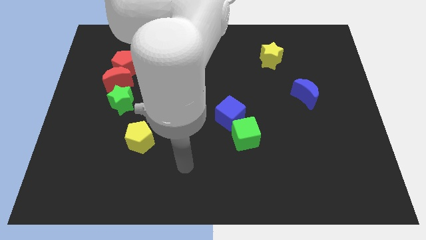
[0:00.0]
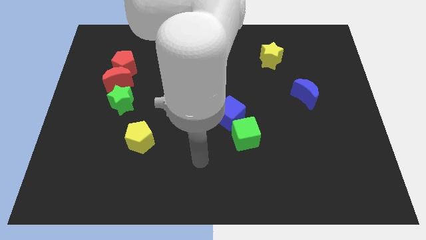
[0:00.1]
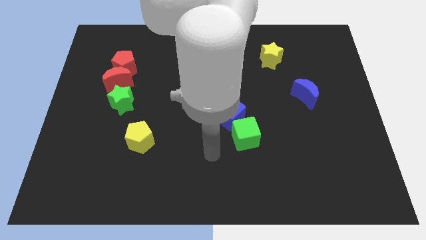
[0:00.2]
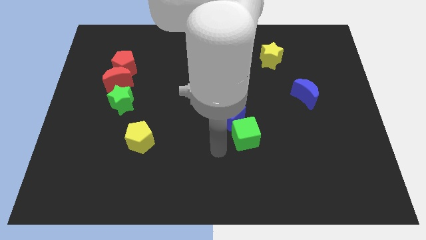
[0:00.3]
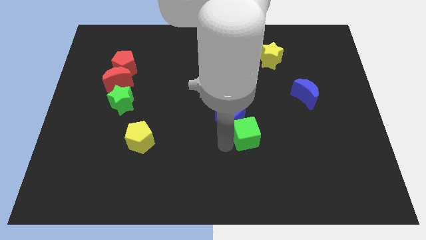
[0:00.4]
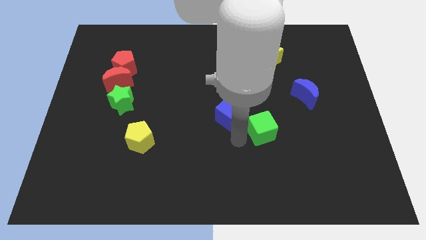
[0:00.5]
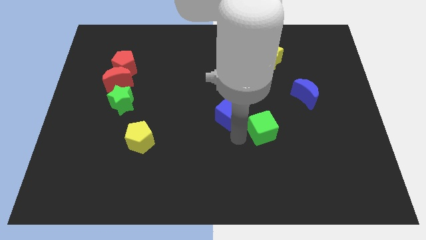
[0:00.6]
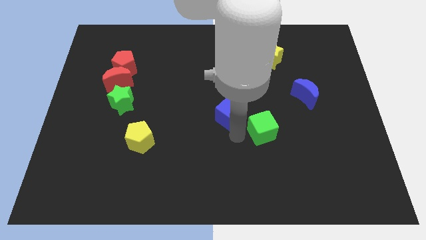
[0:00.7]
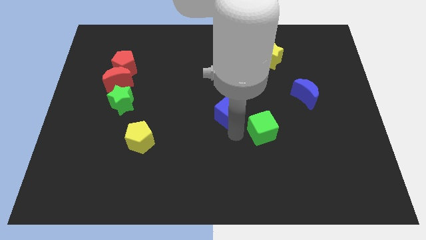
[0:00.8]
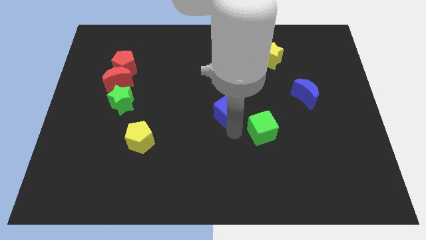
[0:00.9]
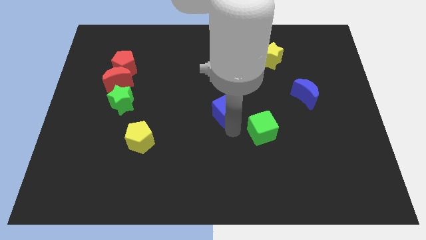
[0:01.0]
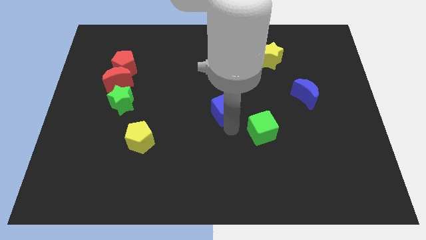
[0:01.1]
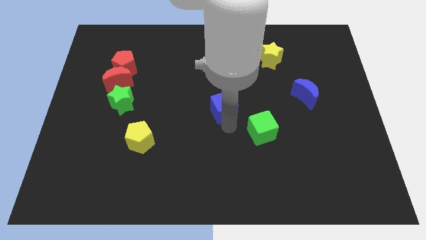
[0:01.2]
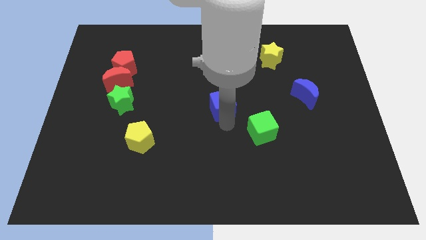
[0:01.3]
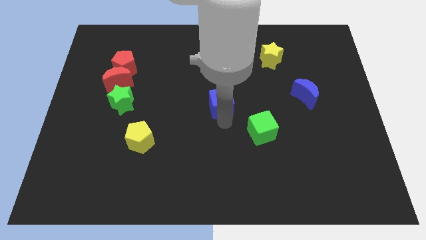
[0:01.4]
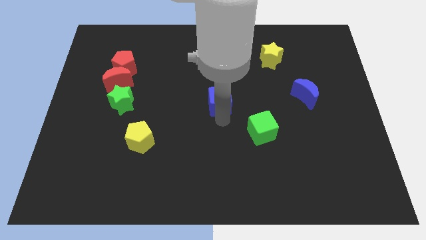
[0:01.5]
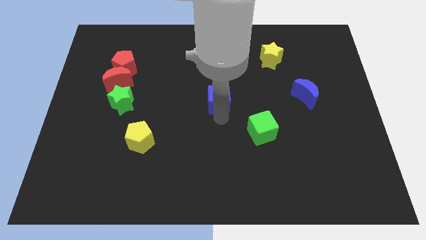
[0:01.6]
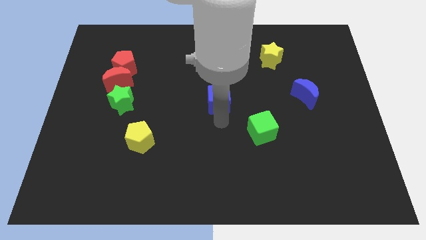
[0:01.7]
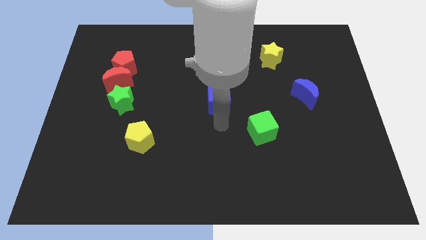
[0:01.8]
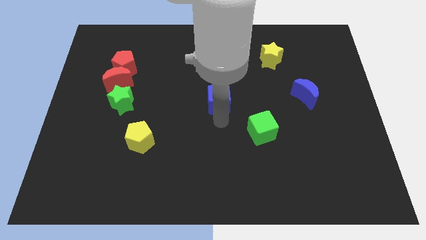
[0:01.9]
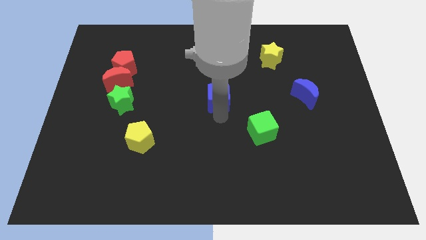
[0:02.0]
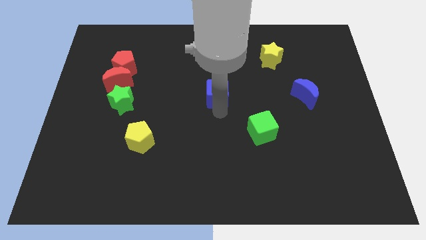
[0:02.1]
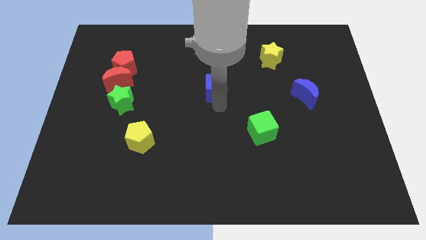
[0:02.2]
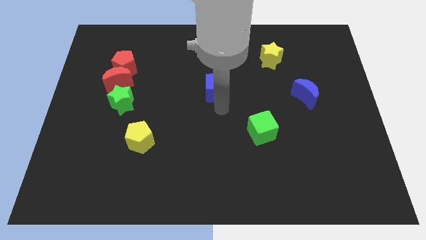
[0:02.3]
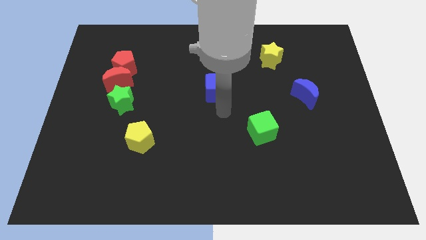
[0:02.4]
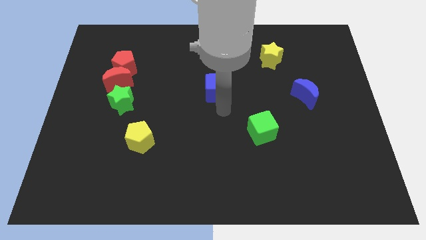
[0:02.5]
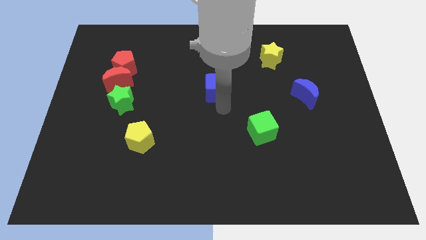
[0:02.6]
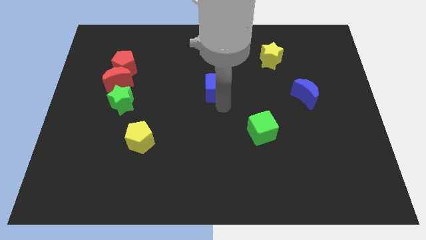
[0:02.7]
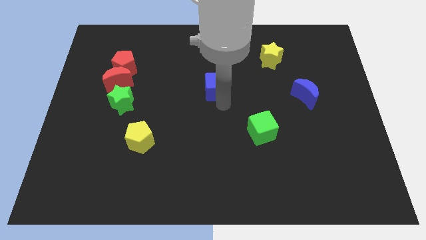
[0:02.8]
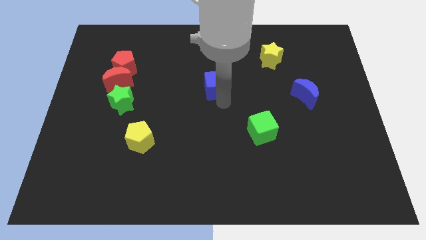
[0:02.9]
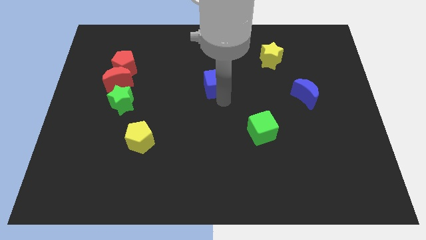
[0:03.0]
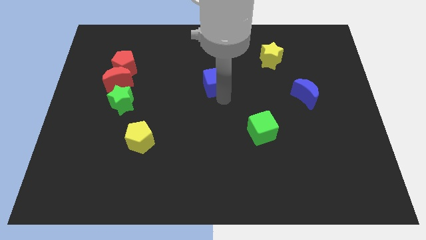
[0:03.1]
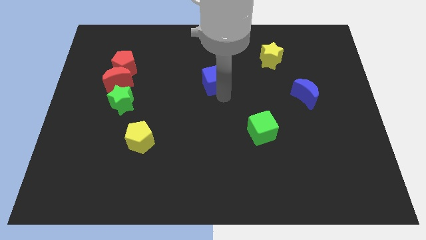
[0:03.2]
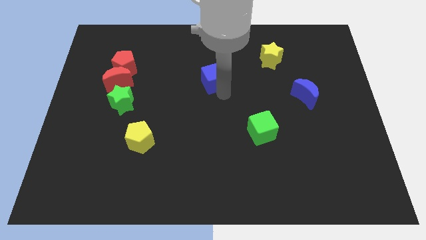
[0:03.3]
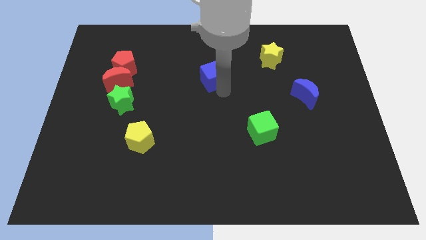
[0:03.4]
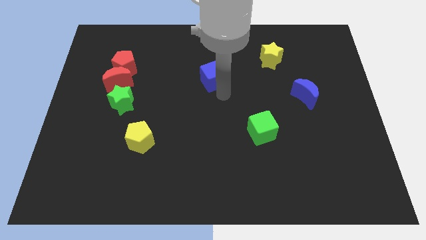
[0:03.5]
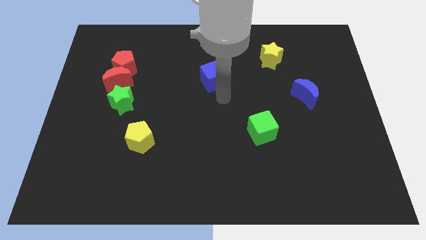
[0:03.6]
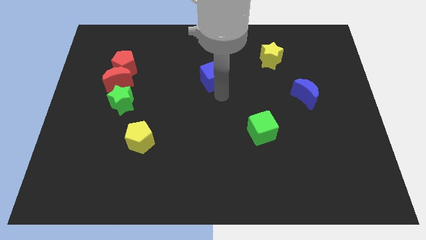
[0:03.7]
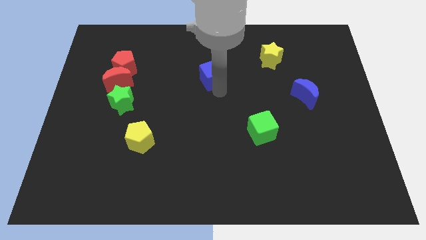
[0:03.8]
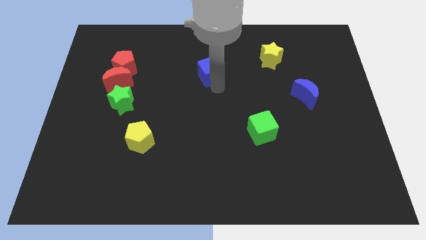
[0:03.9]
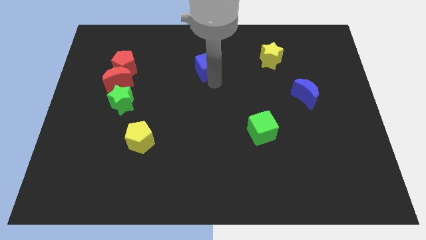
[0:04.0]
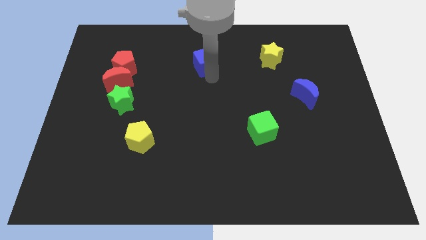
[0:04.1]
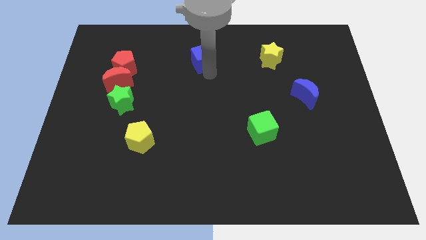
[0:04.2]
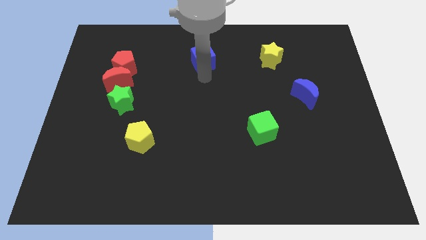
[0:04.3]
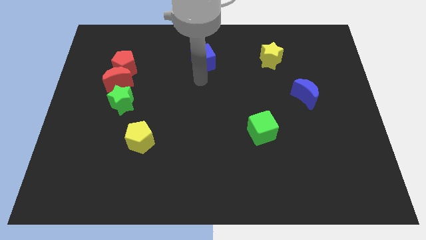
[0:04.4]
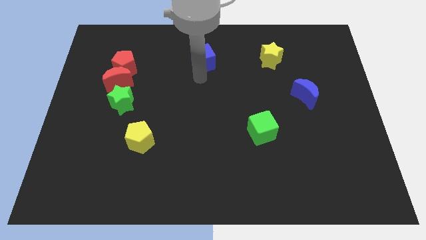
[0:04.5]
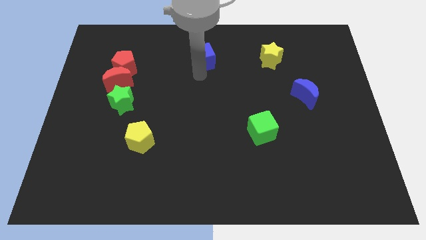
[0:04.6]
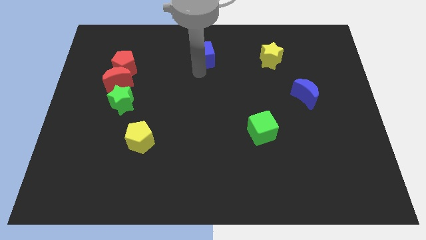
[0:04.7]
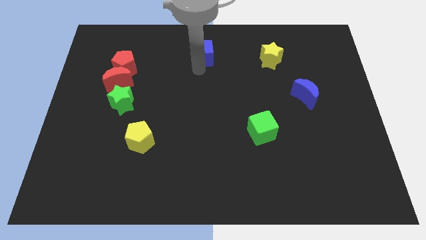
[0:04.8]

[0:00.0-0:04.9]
put the blue cube to the top side
